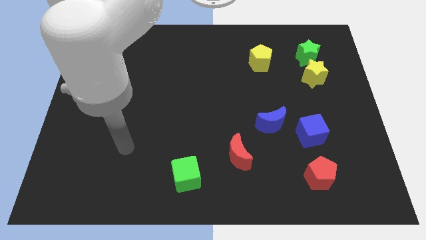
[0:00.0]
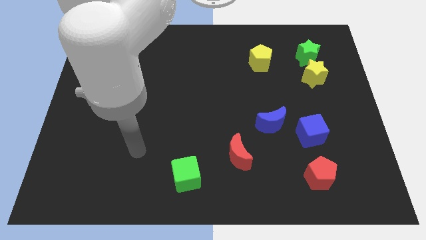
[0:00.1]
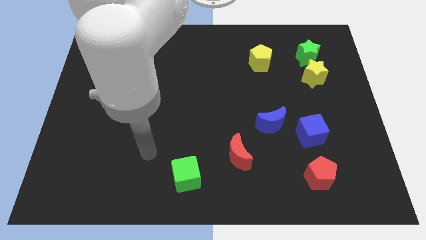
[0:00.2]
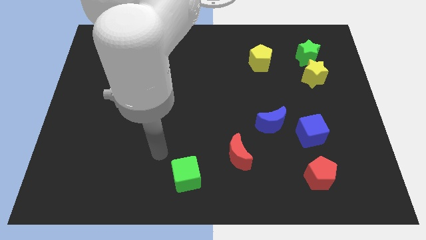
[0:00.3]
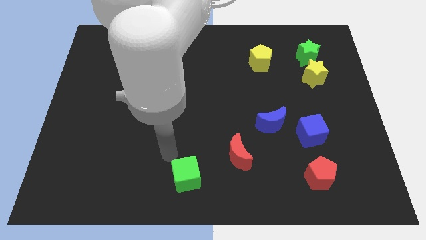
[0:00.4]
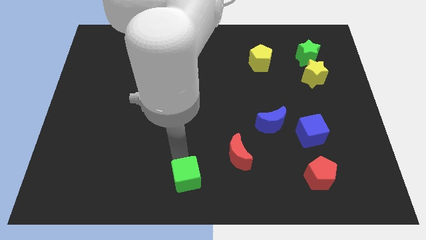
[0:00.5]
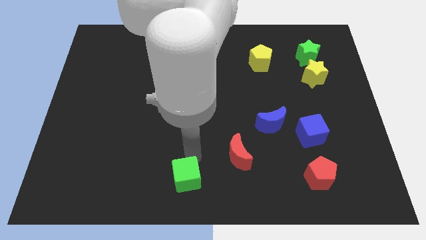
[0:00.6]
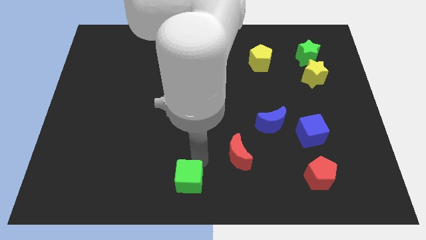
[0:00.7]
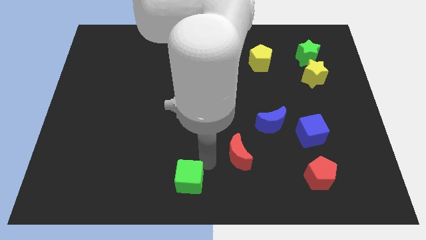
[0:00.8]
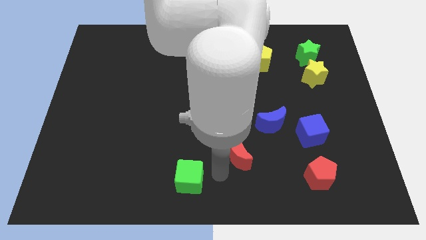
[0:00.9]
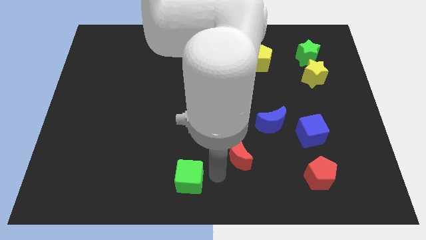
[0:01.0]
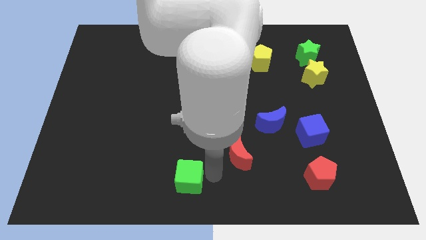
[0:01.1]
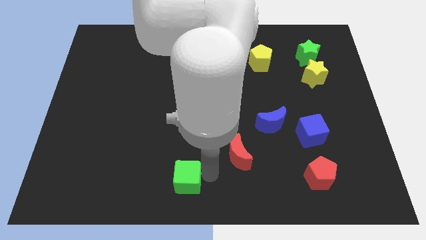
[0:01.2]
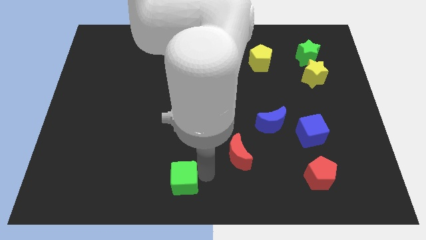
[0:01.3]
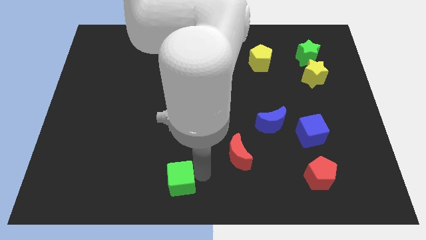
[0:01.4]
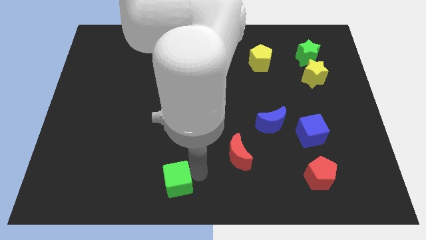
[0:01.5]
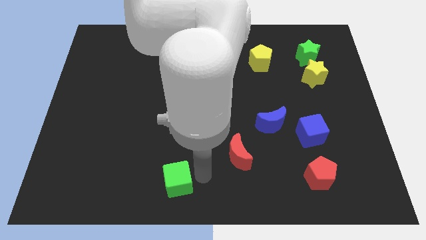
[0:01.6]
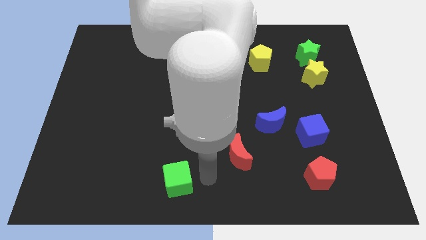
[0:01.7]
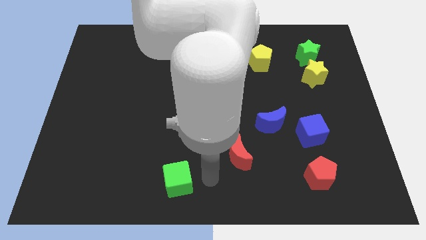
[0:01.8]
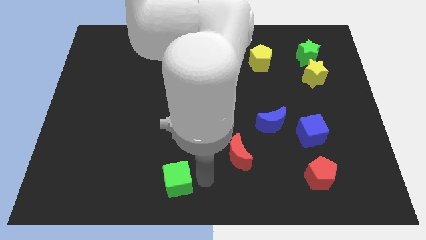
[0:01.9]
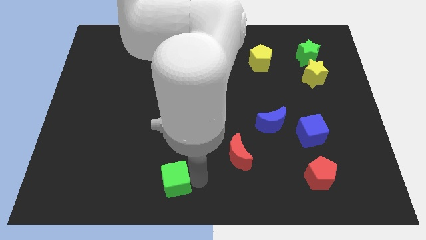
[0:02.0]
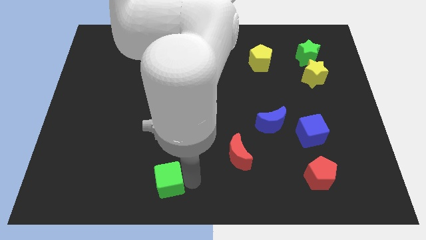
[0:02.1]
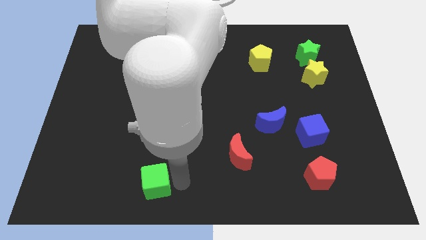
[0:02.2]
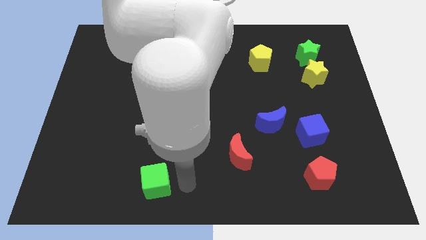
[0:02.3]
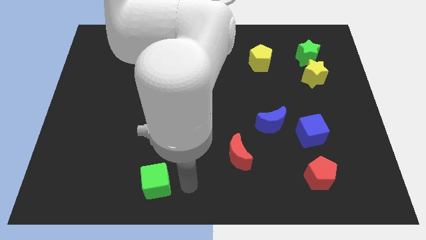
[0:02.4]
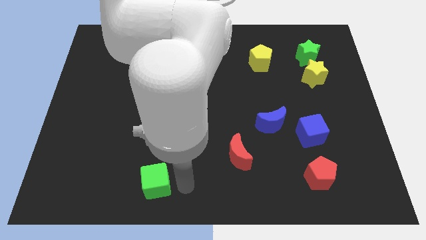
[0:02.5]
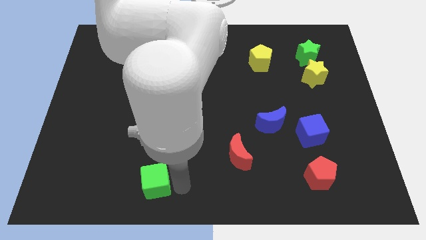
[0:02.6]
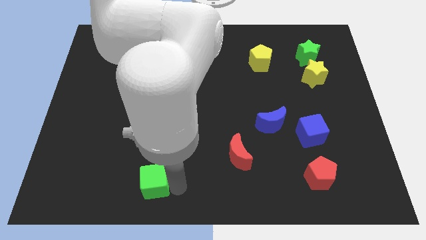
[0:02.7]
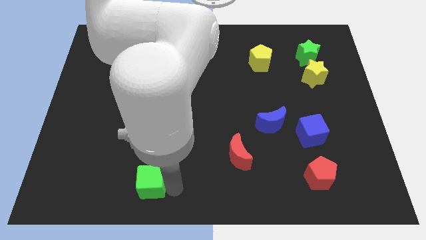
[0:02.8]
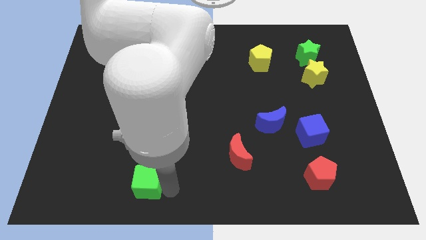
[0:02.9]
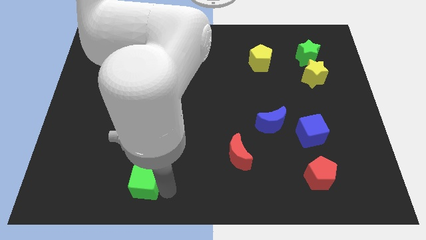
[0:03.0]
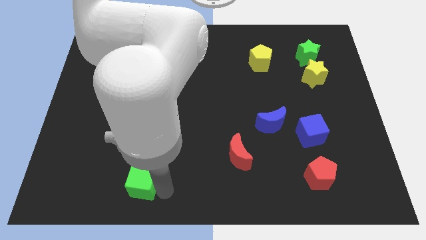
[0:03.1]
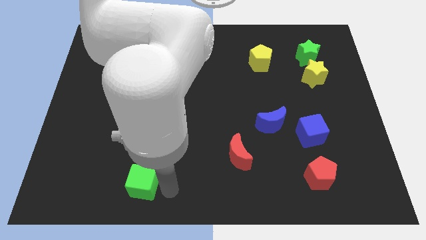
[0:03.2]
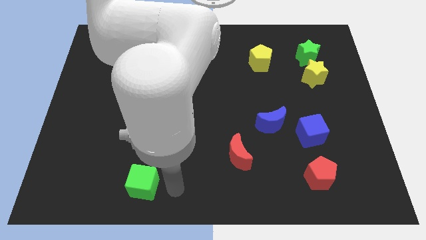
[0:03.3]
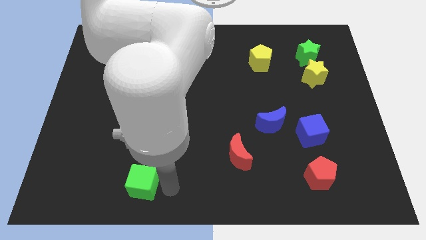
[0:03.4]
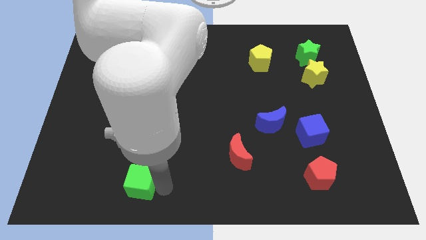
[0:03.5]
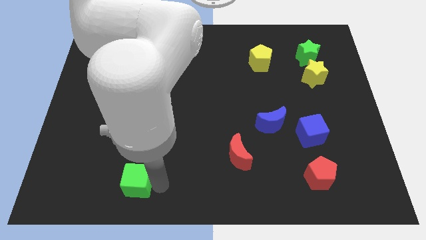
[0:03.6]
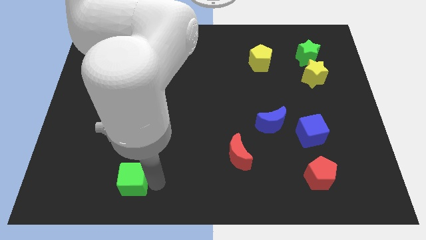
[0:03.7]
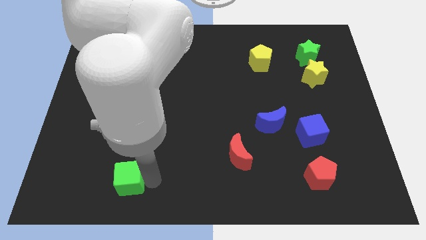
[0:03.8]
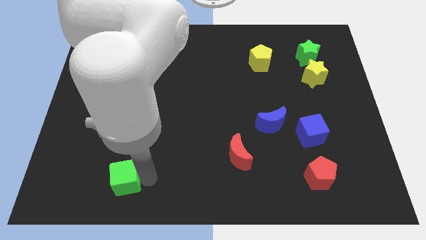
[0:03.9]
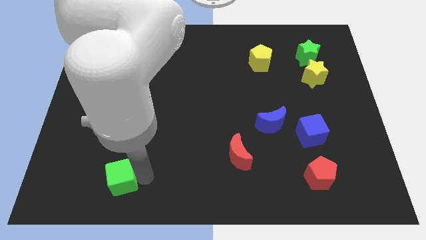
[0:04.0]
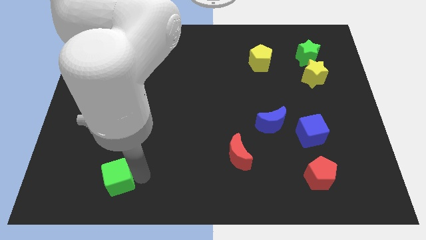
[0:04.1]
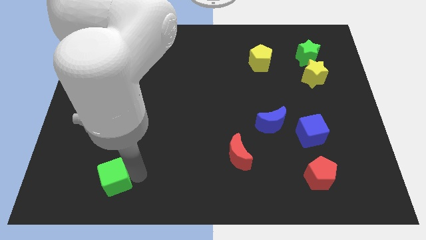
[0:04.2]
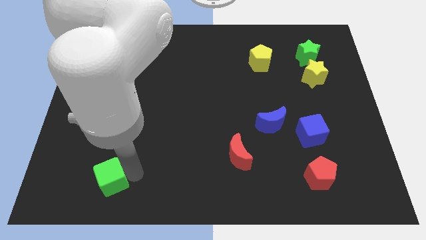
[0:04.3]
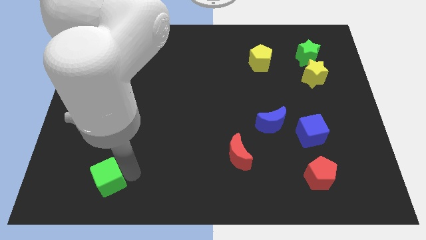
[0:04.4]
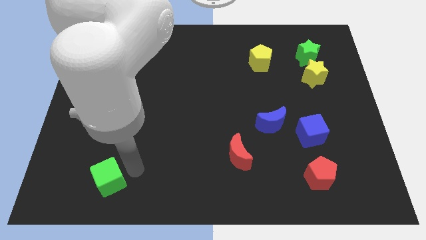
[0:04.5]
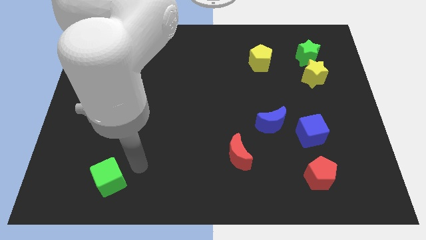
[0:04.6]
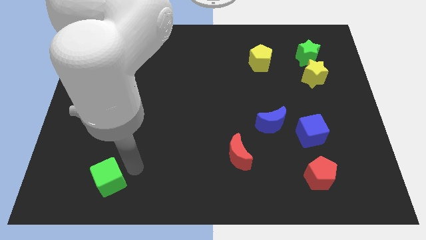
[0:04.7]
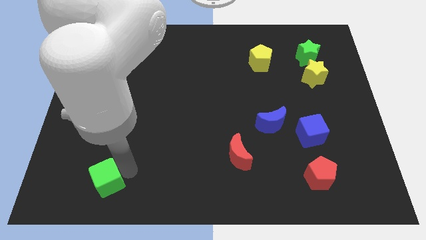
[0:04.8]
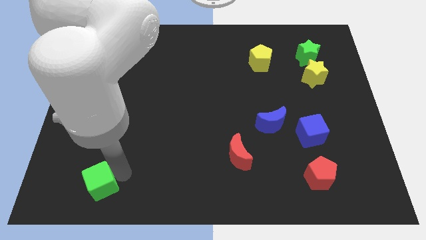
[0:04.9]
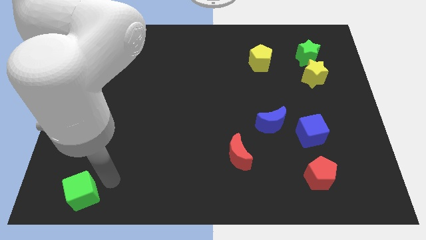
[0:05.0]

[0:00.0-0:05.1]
push the green cube to the bottom left

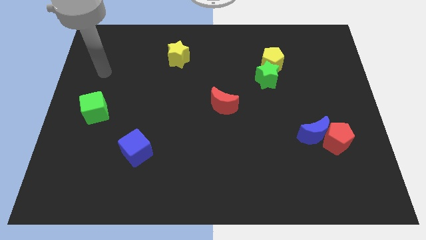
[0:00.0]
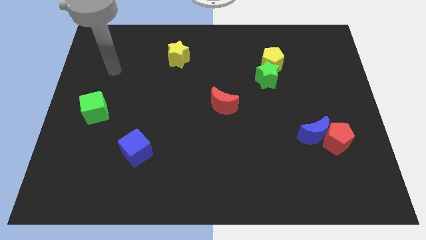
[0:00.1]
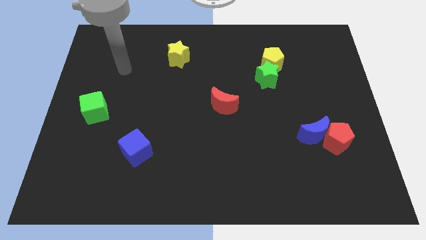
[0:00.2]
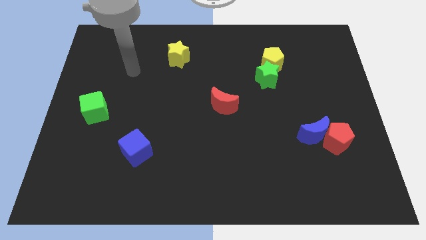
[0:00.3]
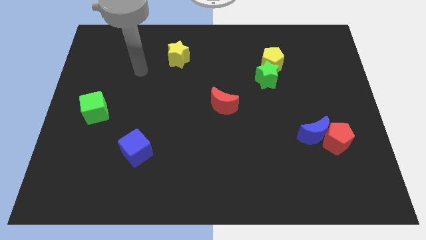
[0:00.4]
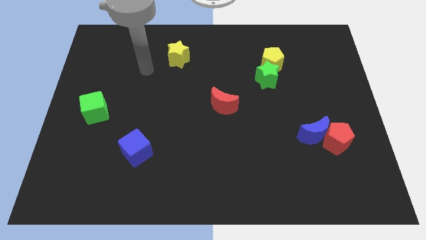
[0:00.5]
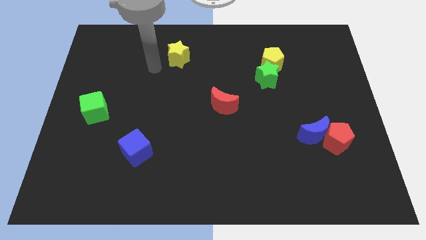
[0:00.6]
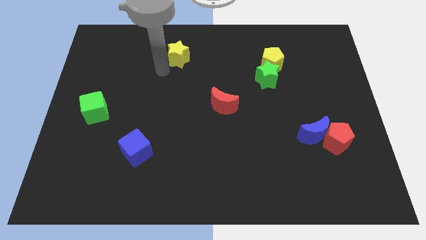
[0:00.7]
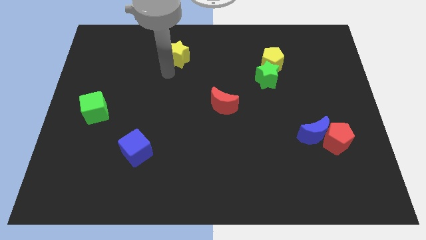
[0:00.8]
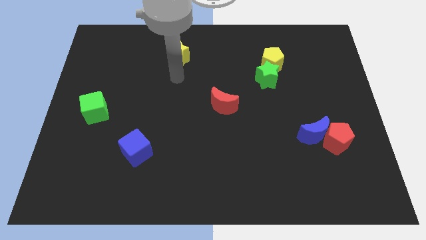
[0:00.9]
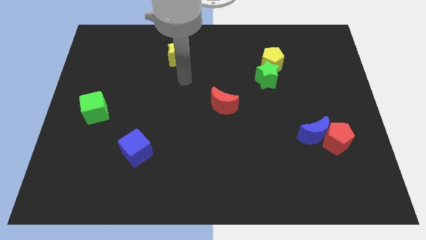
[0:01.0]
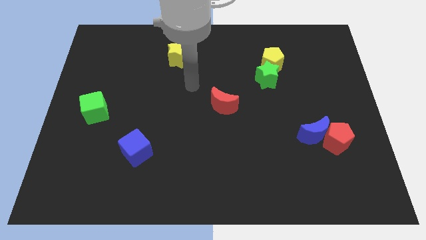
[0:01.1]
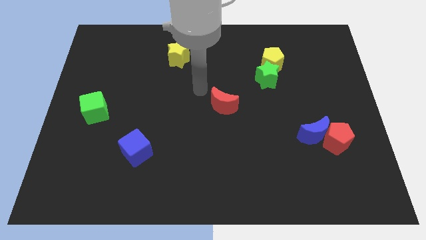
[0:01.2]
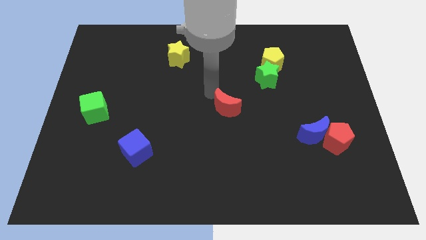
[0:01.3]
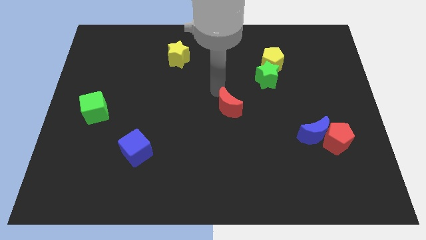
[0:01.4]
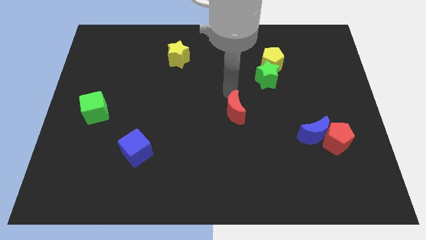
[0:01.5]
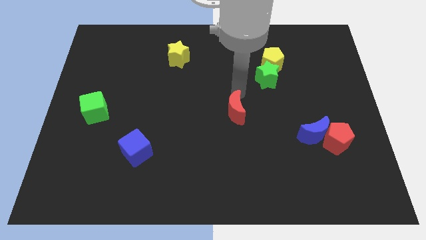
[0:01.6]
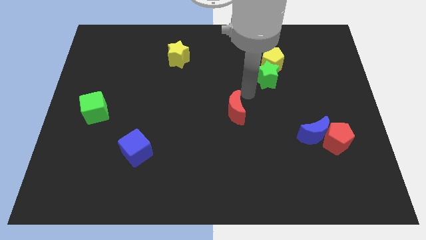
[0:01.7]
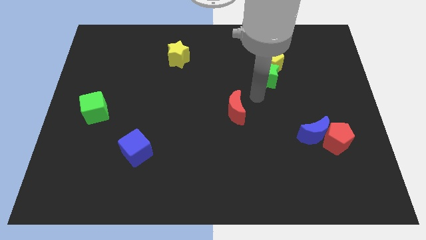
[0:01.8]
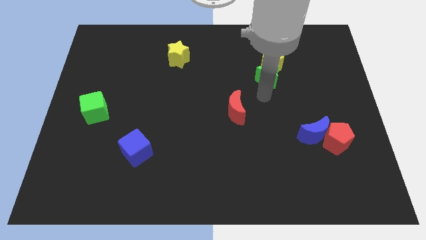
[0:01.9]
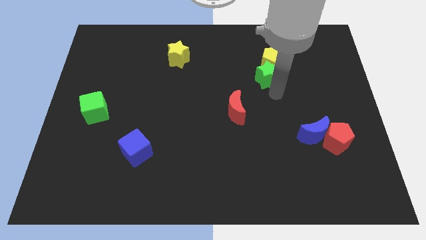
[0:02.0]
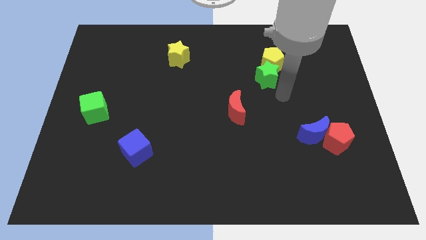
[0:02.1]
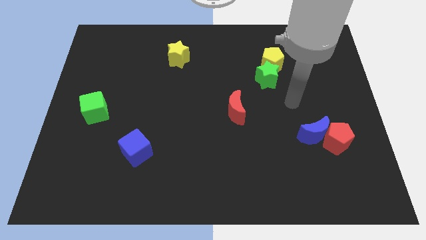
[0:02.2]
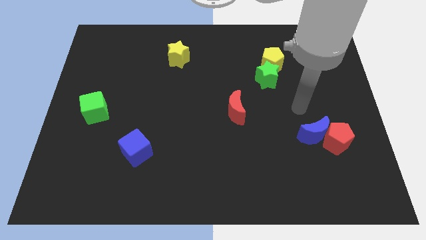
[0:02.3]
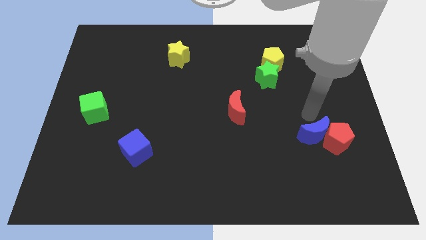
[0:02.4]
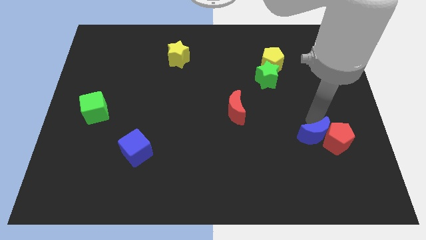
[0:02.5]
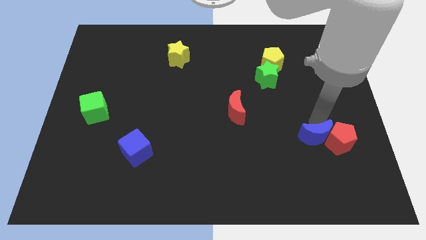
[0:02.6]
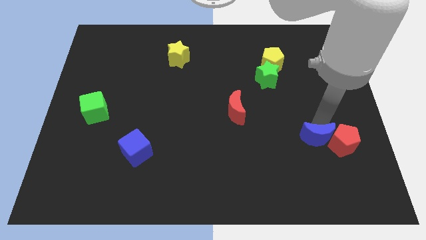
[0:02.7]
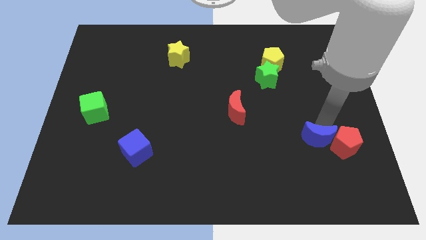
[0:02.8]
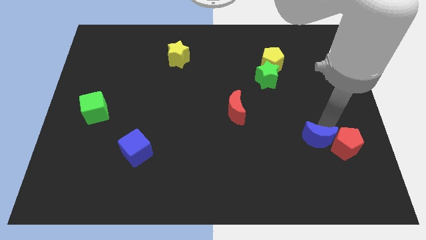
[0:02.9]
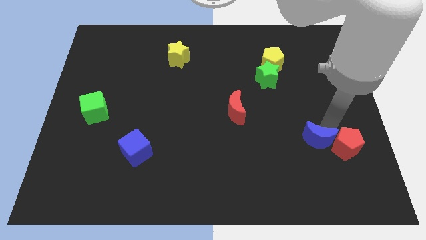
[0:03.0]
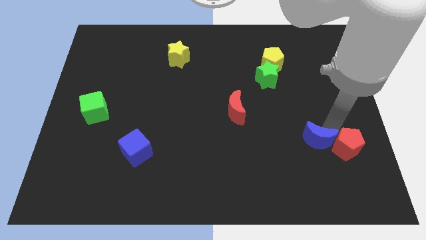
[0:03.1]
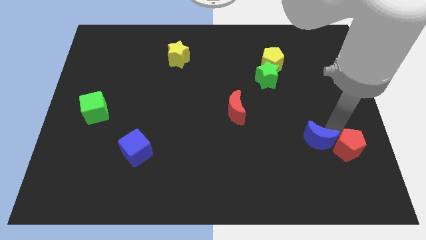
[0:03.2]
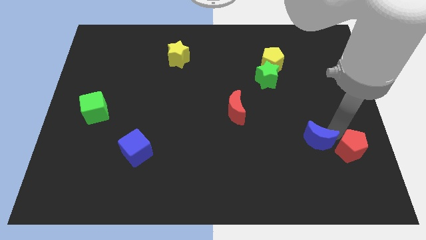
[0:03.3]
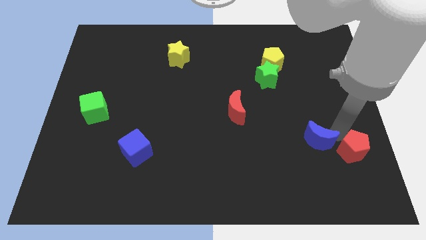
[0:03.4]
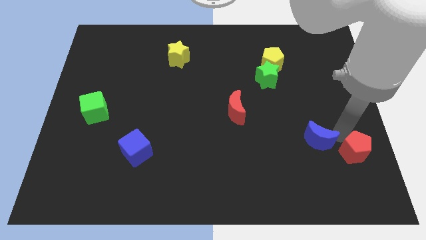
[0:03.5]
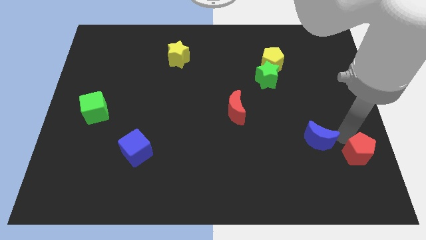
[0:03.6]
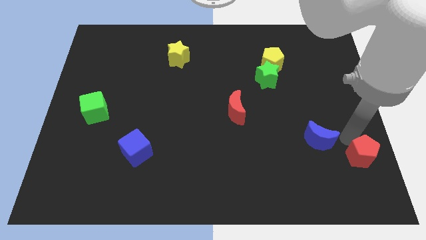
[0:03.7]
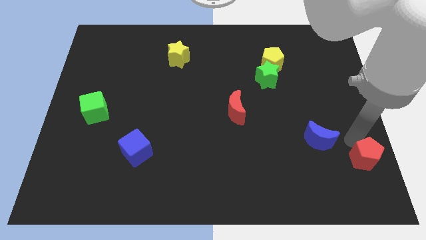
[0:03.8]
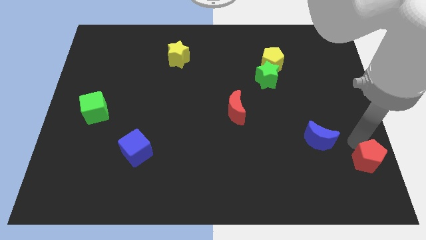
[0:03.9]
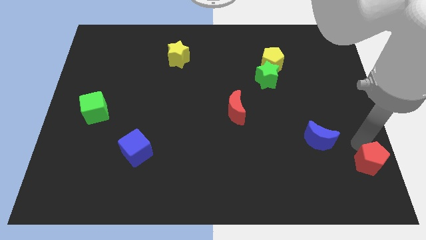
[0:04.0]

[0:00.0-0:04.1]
slide the red pentagon to the bottom right
